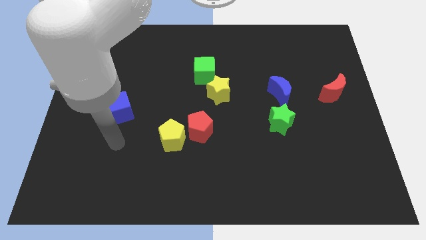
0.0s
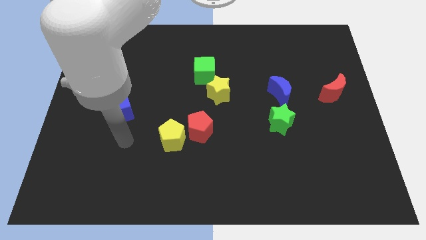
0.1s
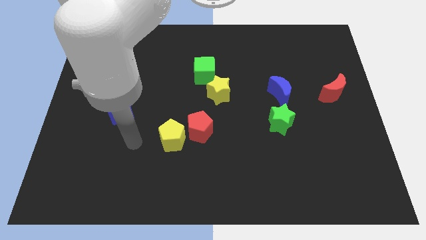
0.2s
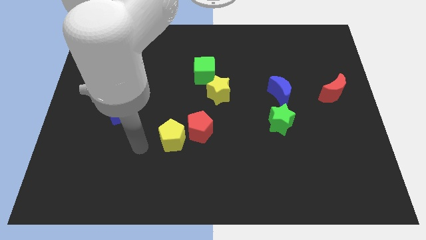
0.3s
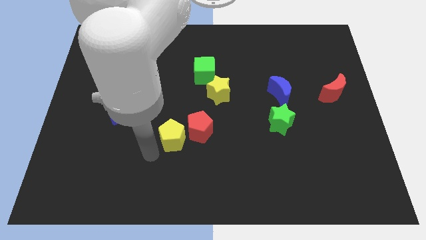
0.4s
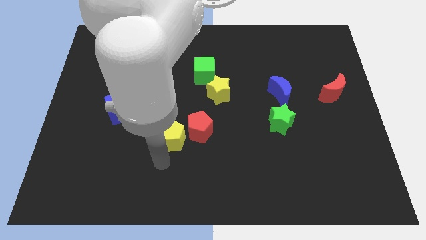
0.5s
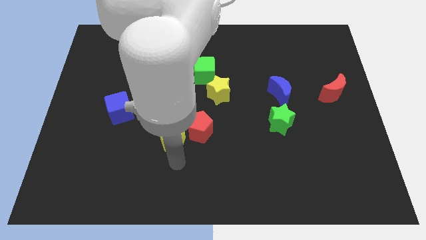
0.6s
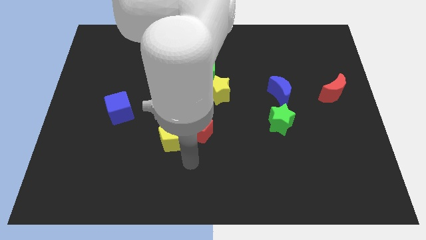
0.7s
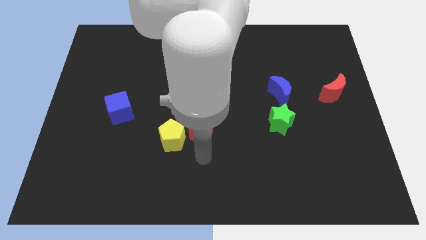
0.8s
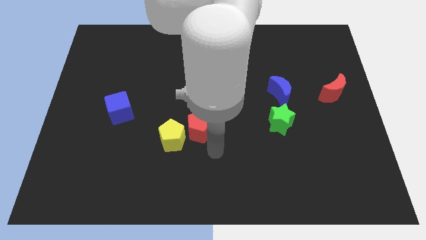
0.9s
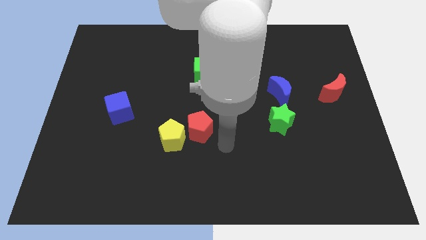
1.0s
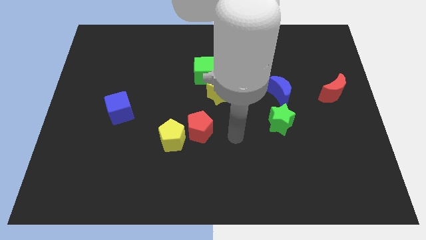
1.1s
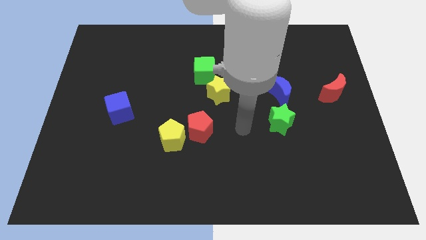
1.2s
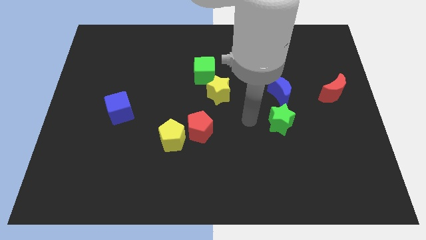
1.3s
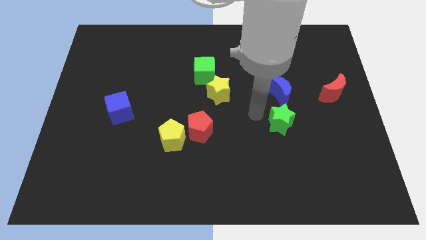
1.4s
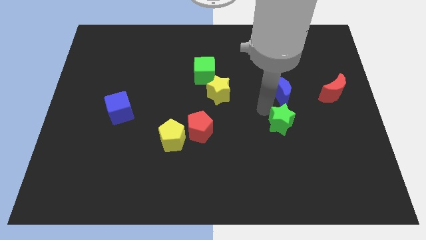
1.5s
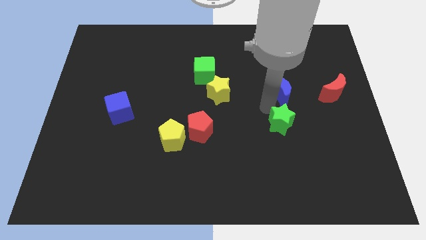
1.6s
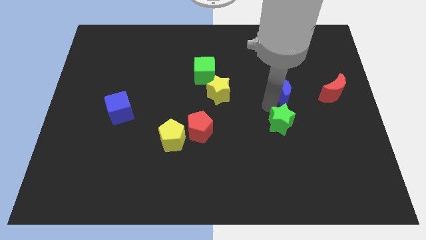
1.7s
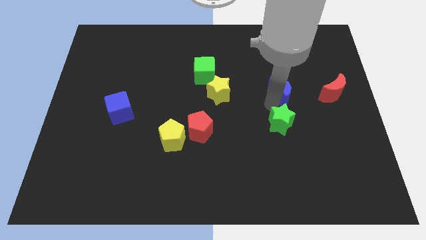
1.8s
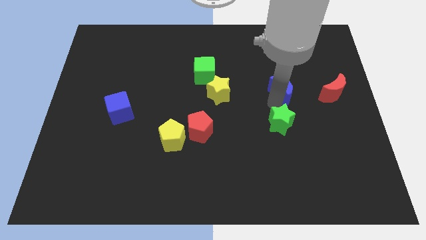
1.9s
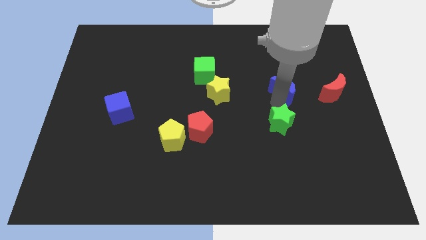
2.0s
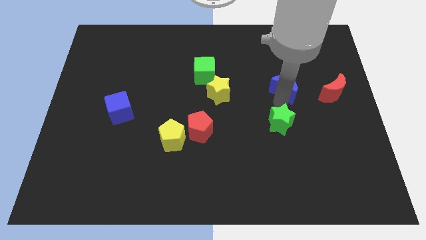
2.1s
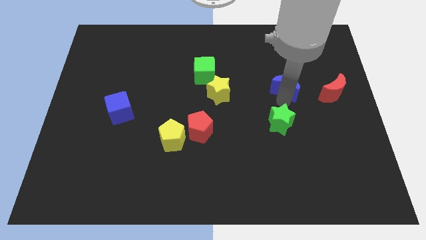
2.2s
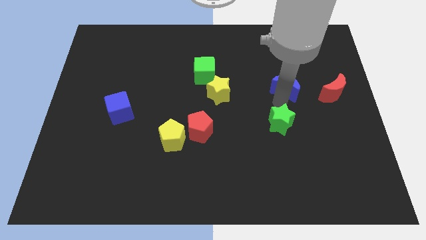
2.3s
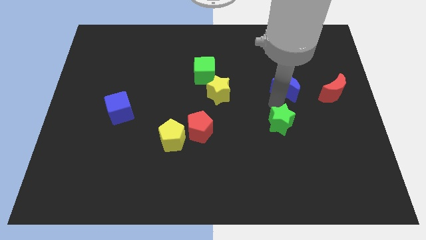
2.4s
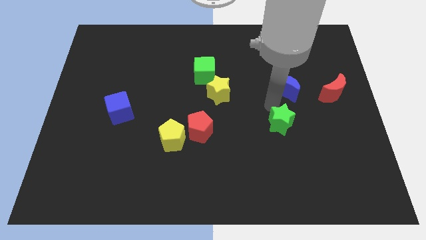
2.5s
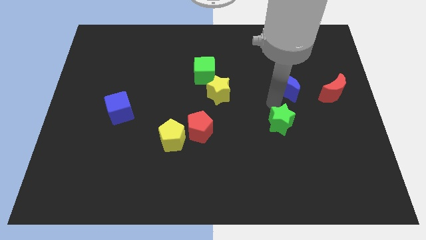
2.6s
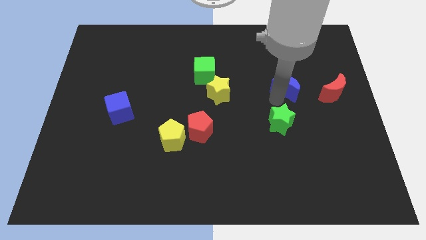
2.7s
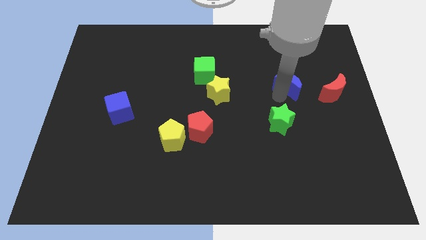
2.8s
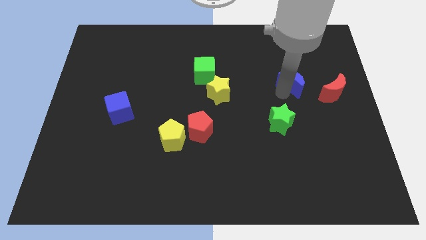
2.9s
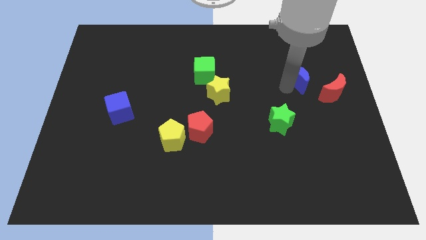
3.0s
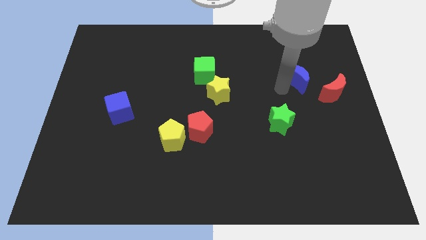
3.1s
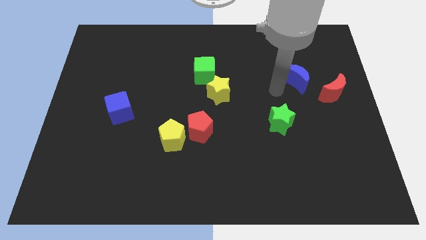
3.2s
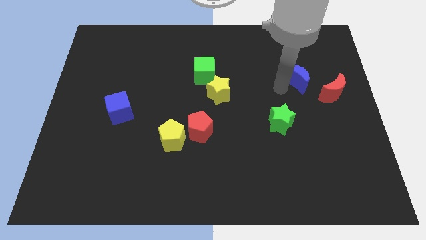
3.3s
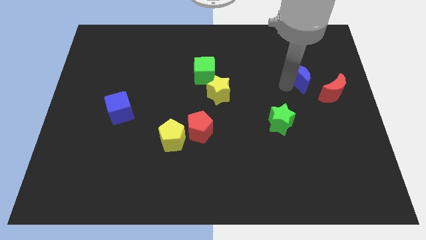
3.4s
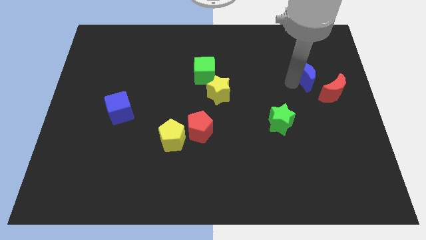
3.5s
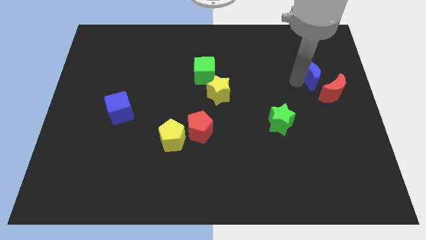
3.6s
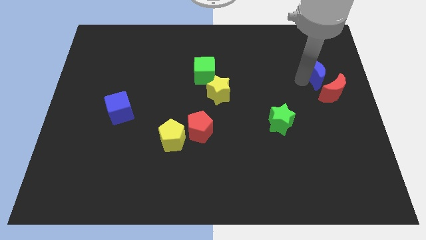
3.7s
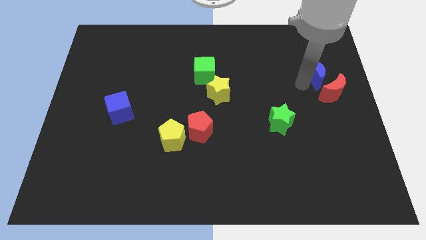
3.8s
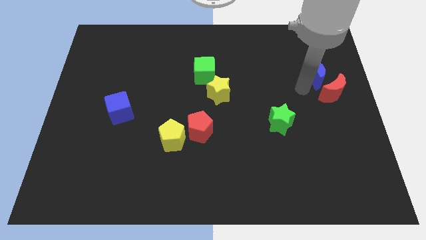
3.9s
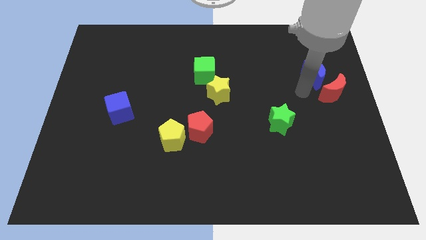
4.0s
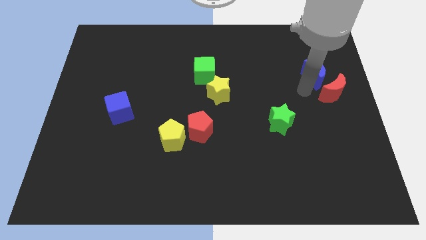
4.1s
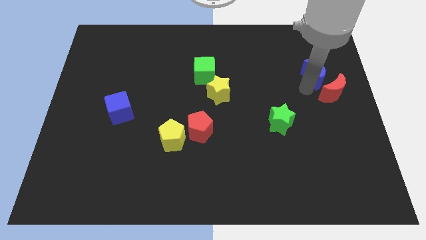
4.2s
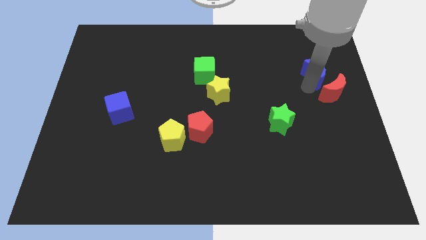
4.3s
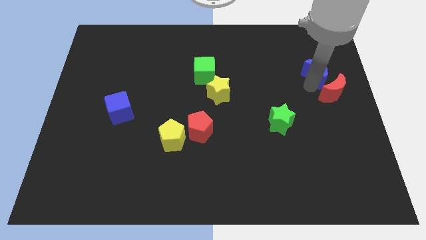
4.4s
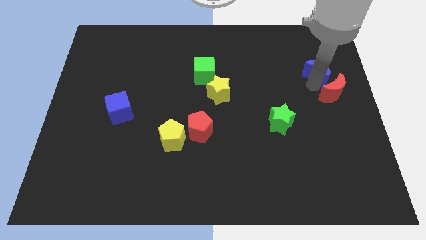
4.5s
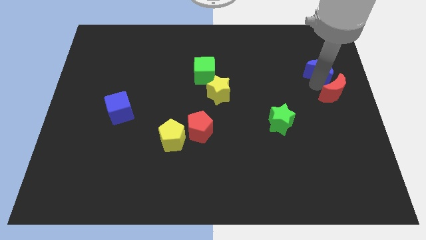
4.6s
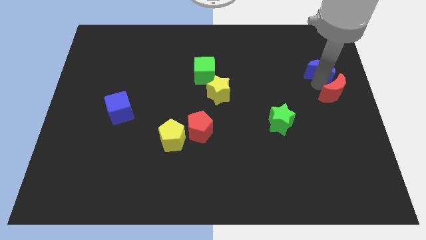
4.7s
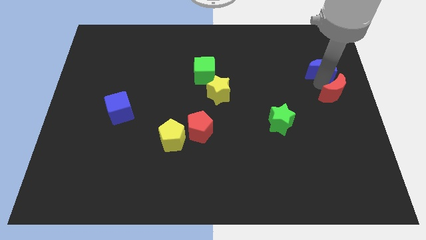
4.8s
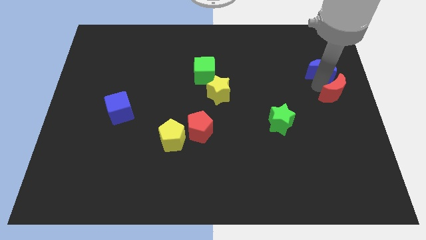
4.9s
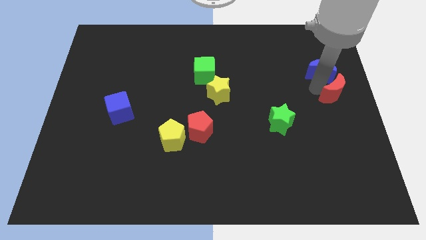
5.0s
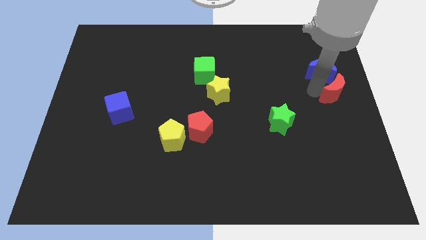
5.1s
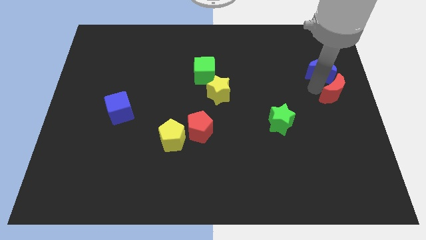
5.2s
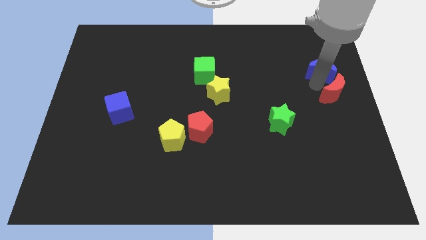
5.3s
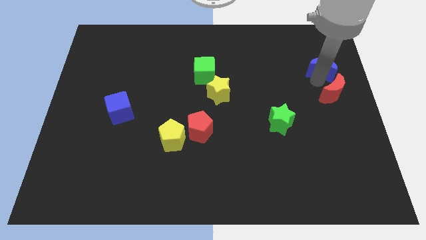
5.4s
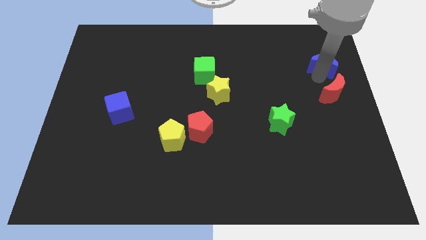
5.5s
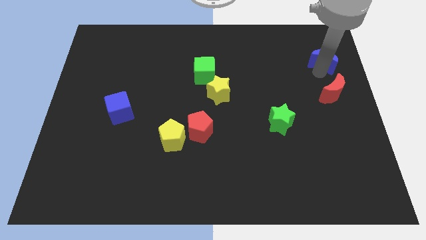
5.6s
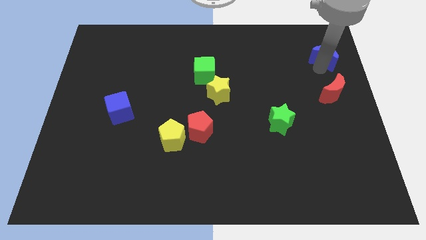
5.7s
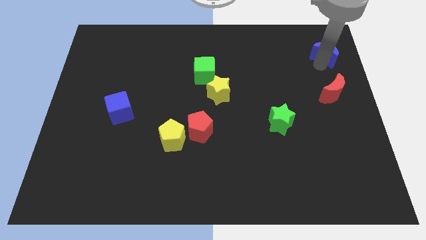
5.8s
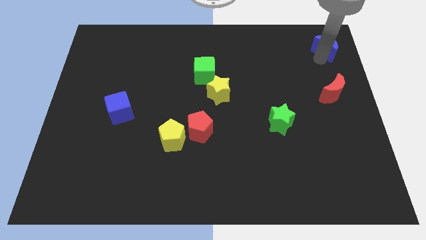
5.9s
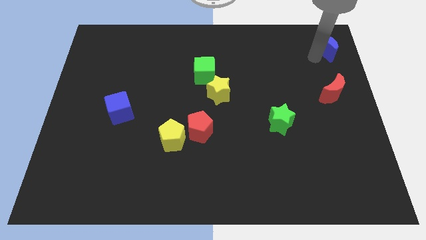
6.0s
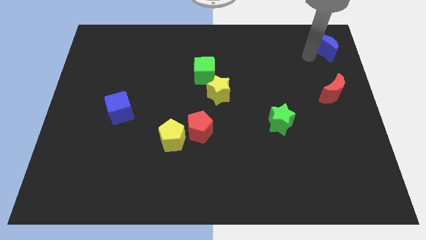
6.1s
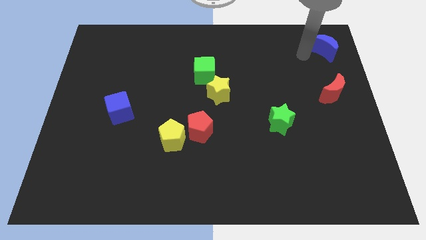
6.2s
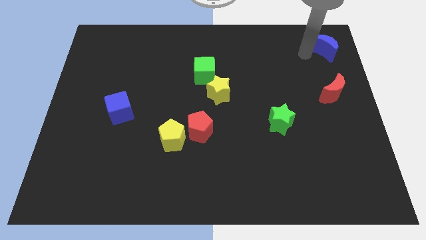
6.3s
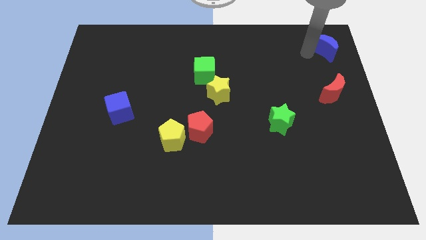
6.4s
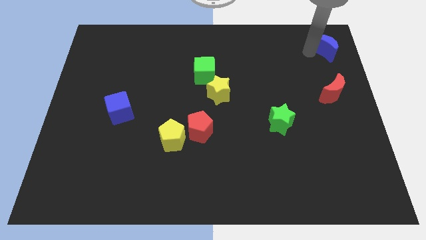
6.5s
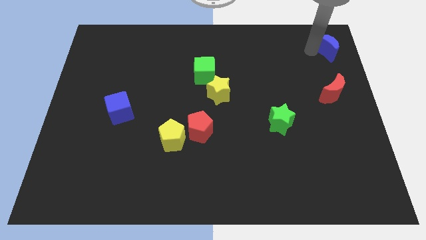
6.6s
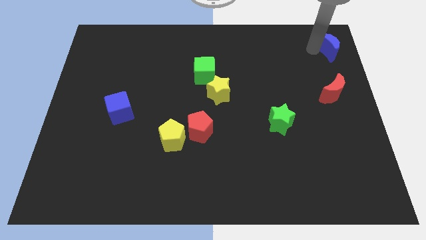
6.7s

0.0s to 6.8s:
slide the blue moon to the upper right corner
